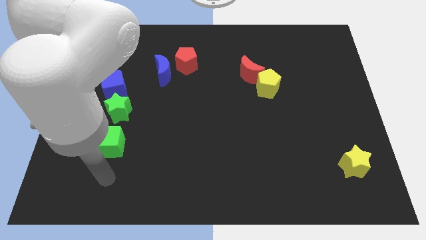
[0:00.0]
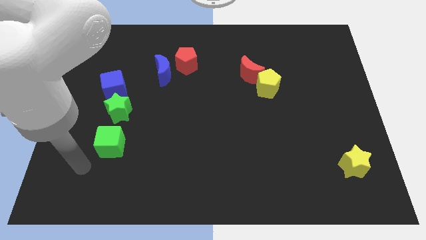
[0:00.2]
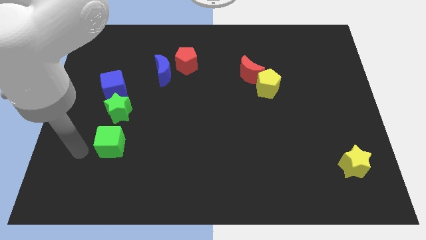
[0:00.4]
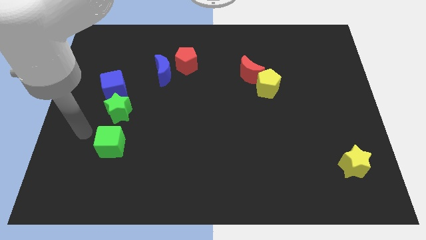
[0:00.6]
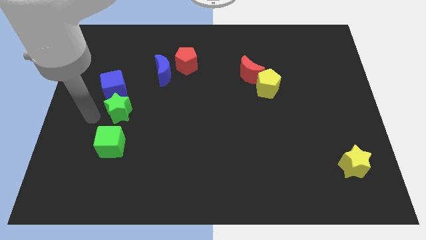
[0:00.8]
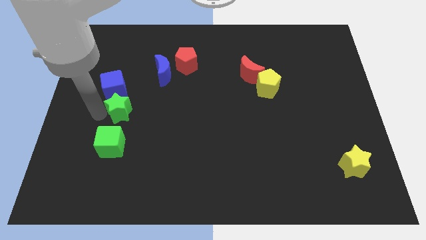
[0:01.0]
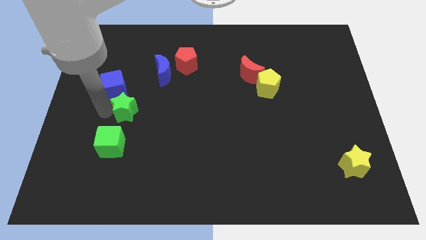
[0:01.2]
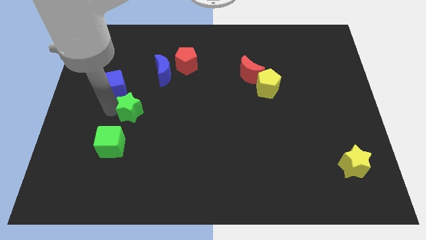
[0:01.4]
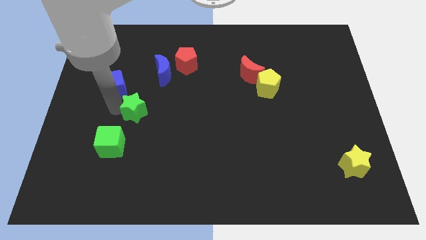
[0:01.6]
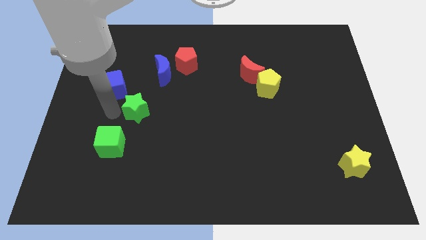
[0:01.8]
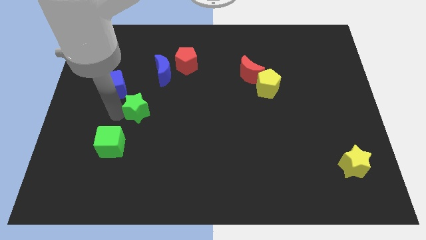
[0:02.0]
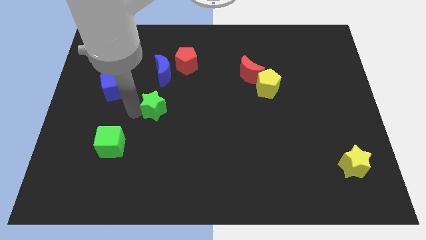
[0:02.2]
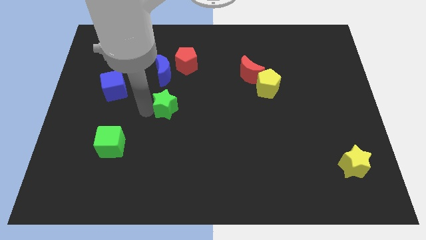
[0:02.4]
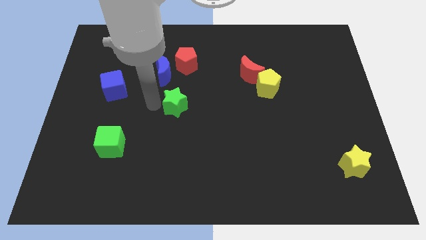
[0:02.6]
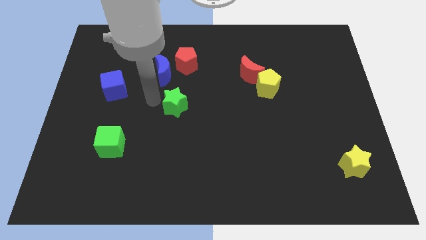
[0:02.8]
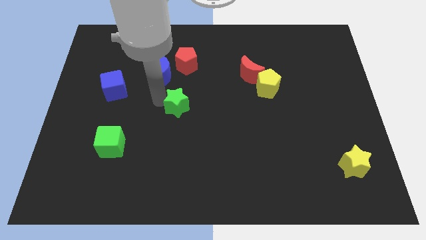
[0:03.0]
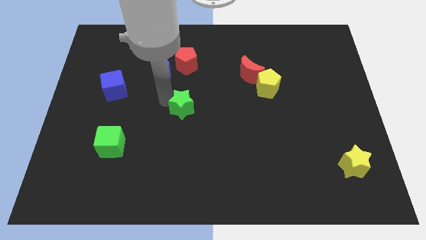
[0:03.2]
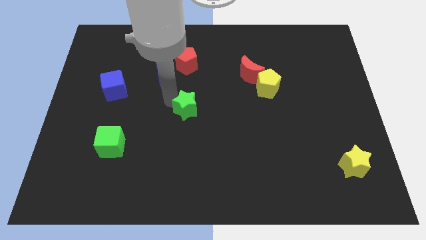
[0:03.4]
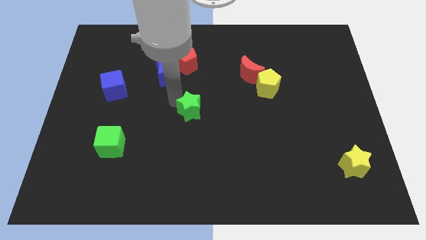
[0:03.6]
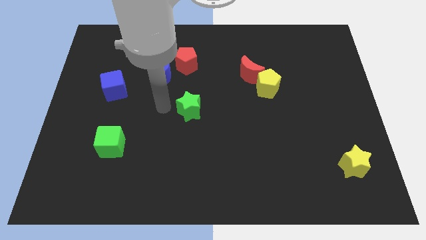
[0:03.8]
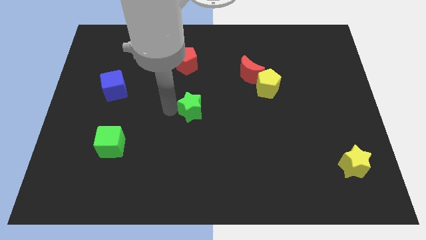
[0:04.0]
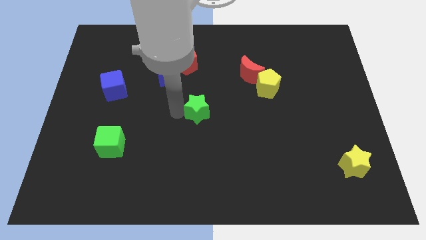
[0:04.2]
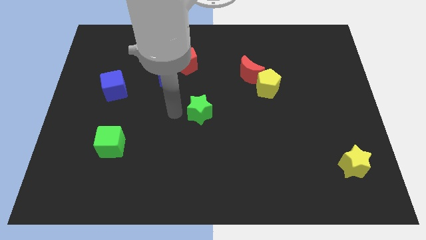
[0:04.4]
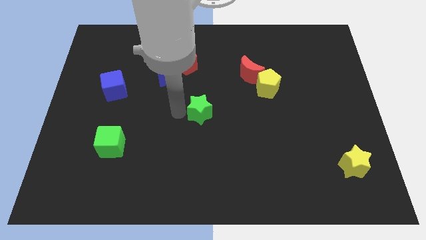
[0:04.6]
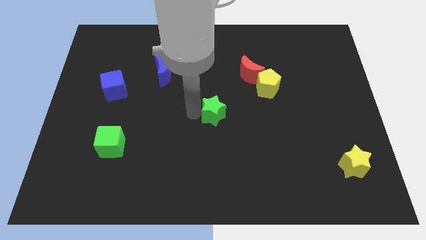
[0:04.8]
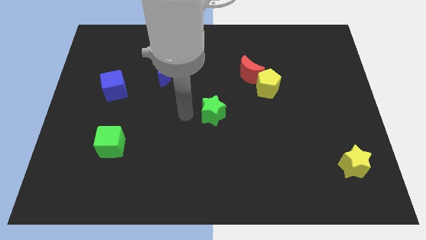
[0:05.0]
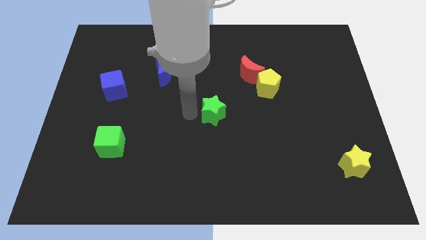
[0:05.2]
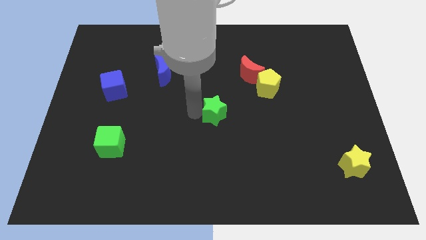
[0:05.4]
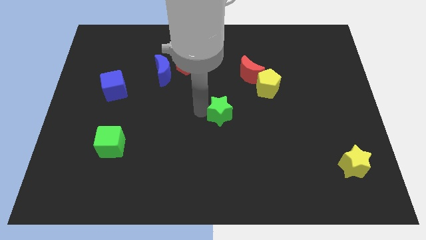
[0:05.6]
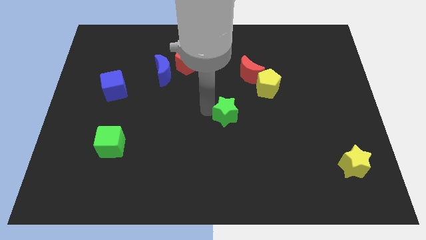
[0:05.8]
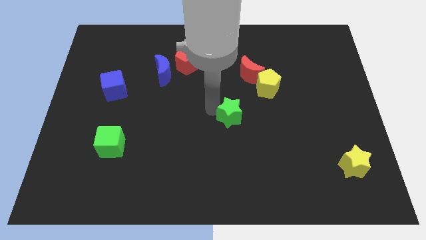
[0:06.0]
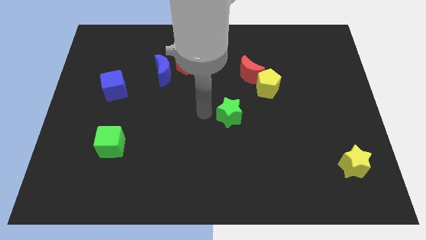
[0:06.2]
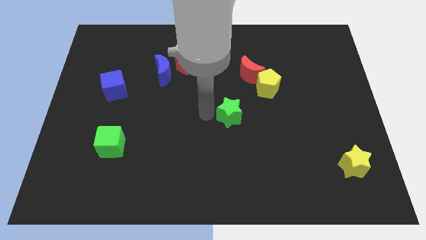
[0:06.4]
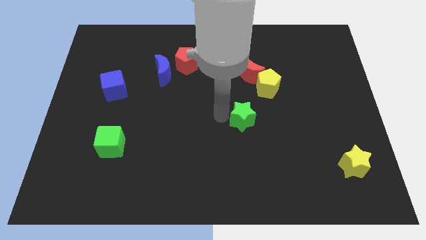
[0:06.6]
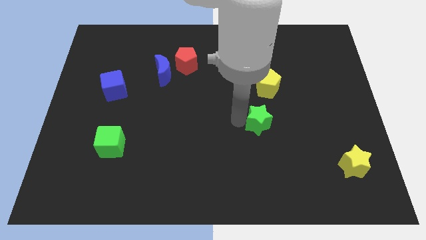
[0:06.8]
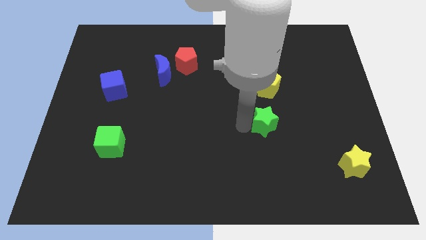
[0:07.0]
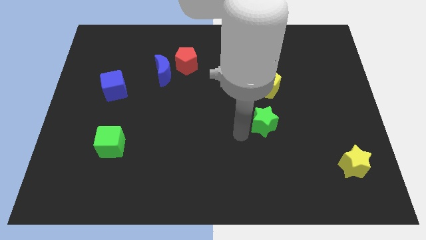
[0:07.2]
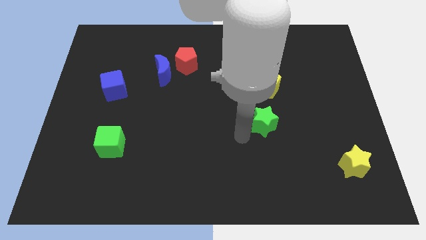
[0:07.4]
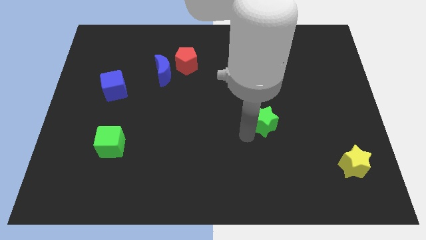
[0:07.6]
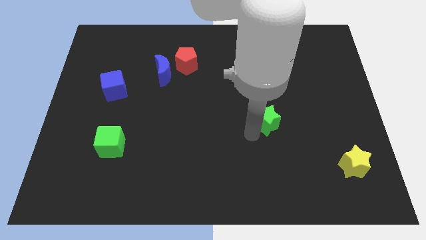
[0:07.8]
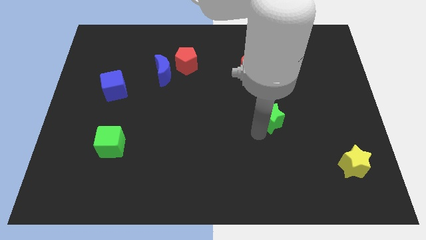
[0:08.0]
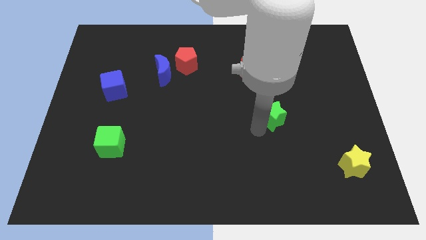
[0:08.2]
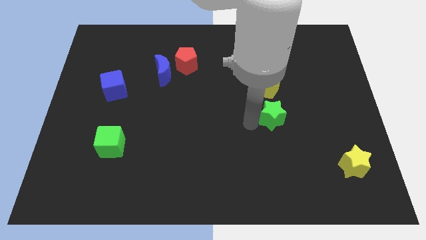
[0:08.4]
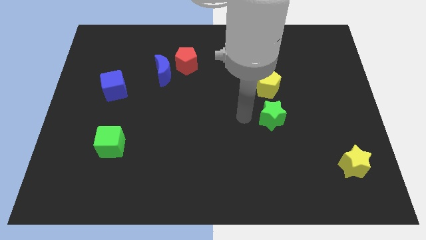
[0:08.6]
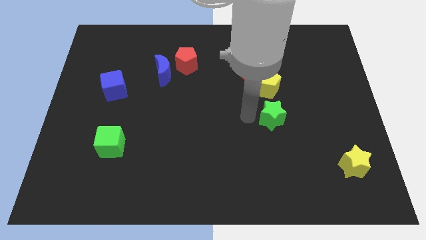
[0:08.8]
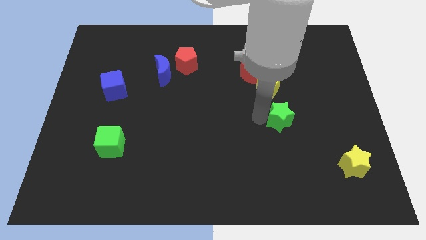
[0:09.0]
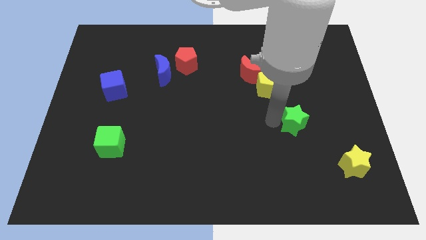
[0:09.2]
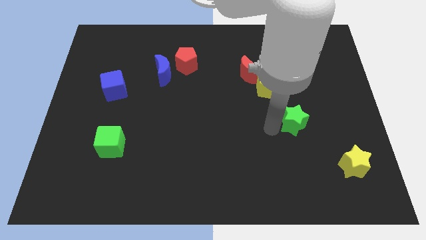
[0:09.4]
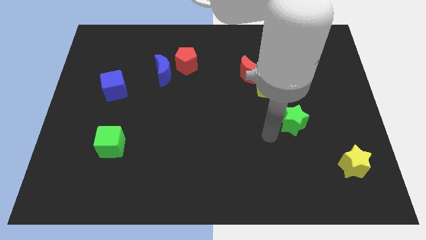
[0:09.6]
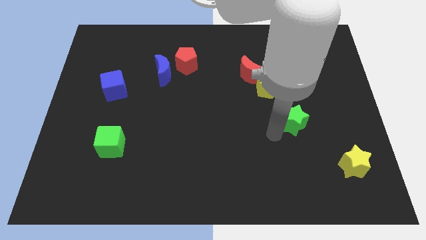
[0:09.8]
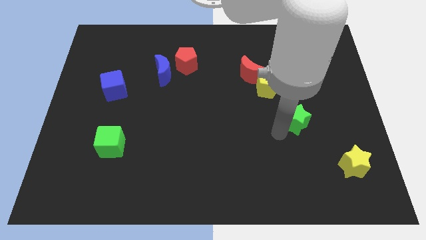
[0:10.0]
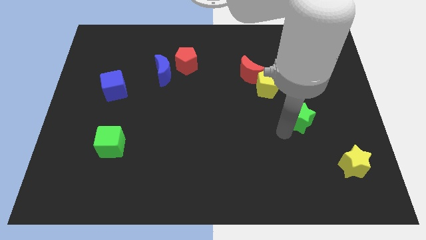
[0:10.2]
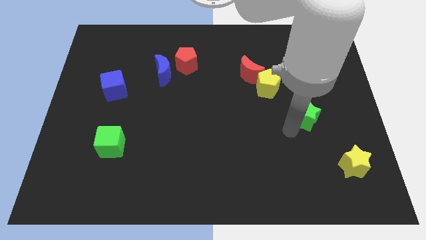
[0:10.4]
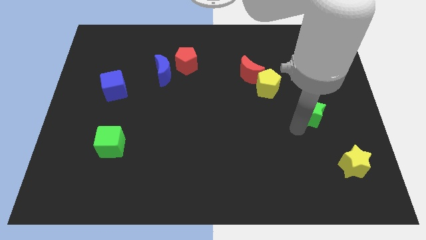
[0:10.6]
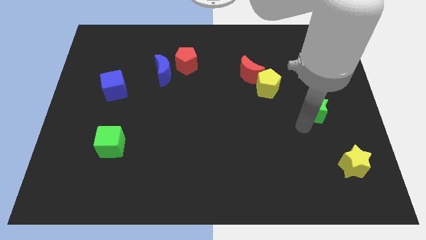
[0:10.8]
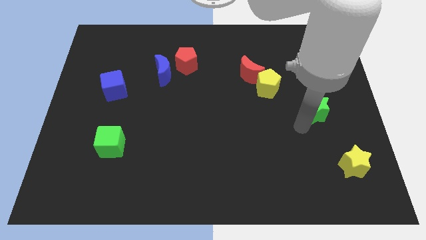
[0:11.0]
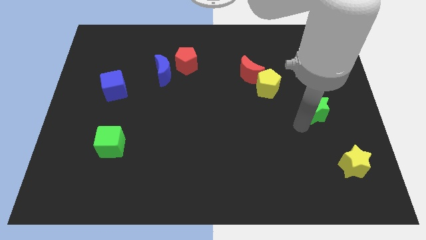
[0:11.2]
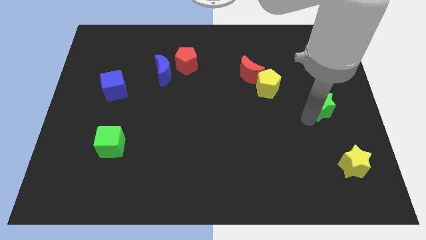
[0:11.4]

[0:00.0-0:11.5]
push the green star to the right side
